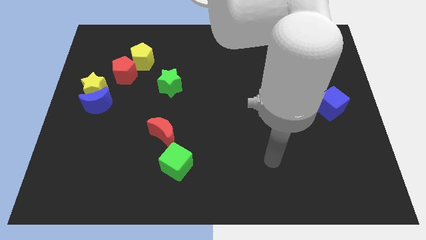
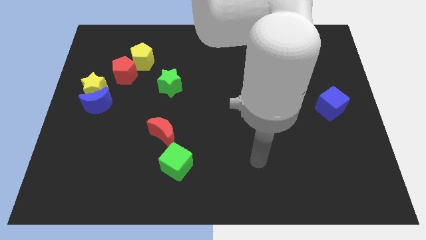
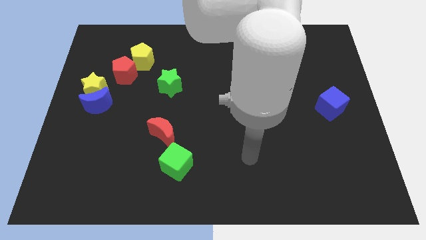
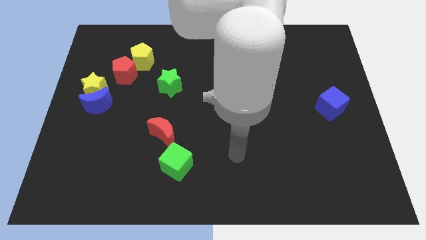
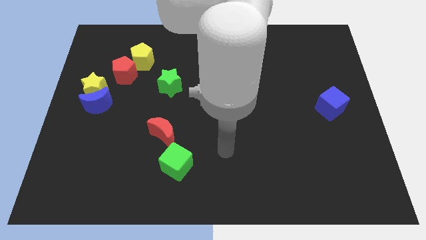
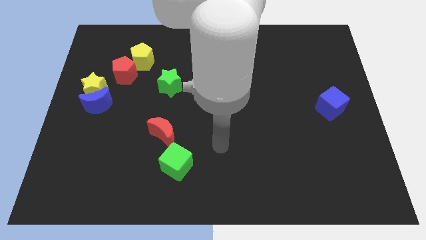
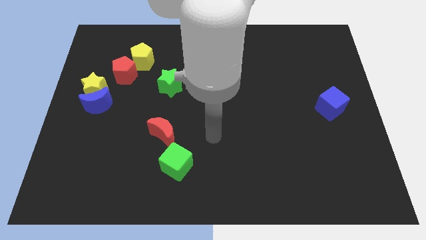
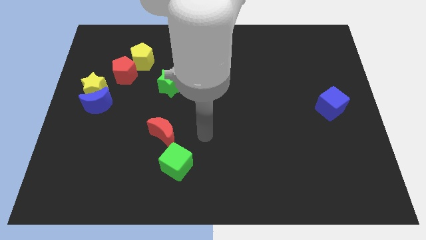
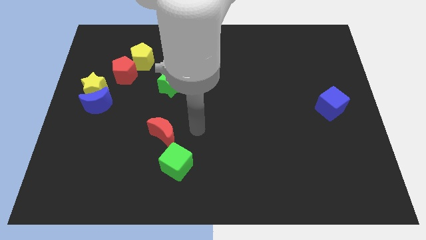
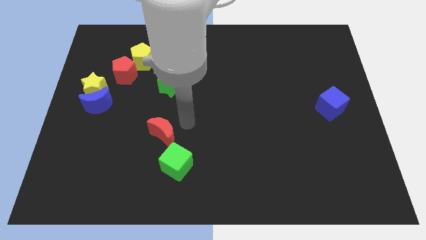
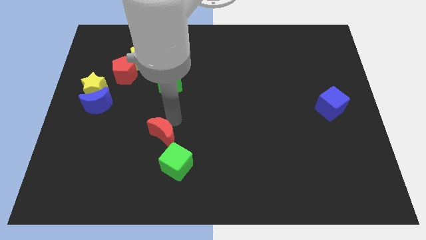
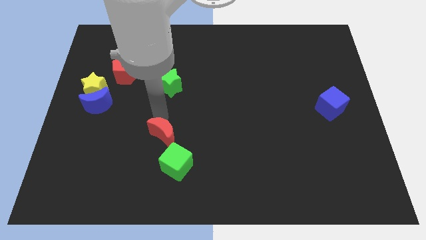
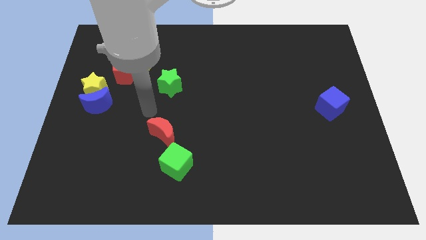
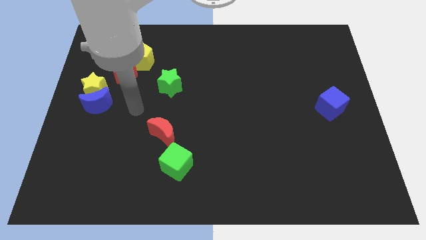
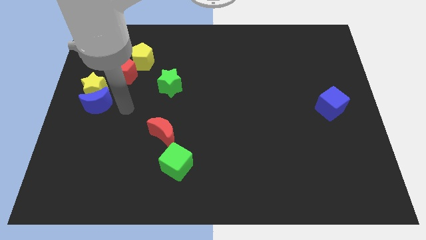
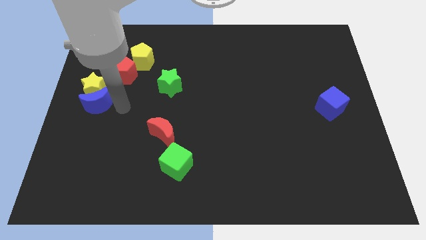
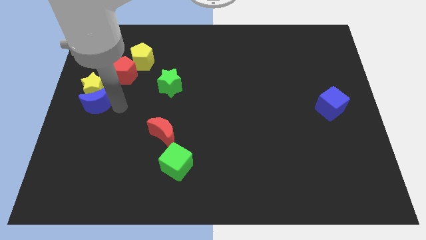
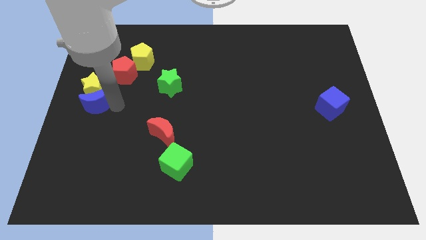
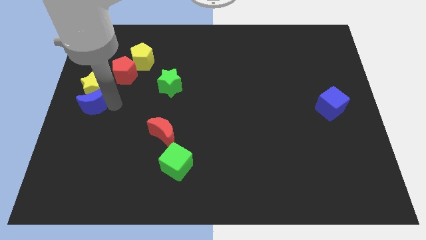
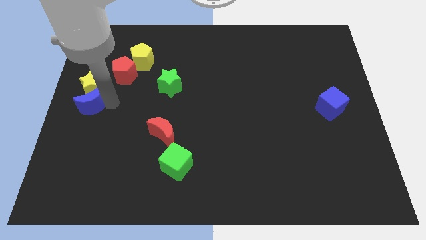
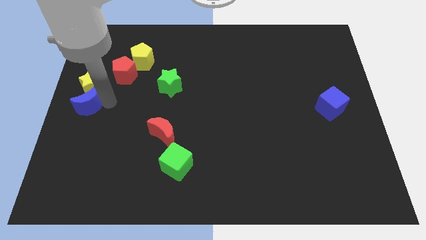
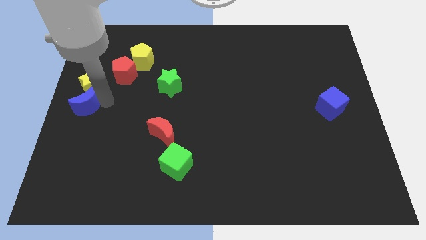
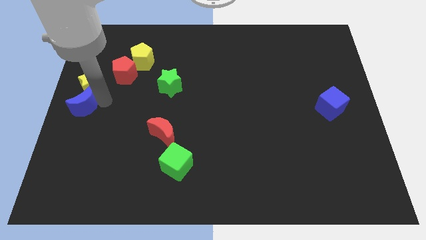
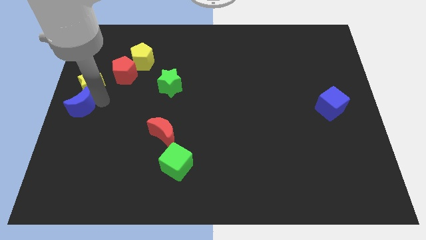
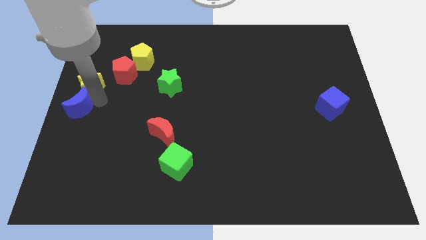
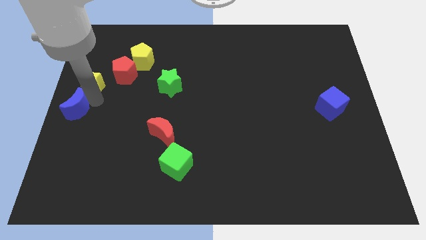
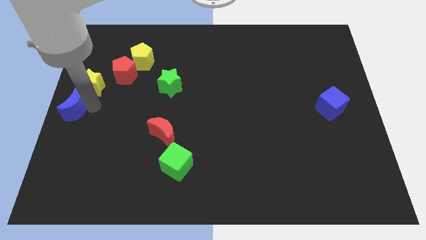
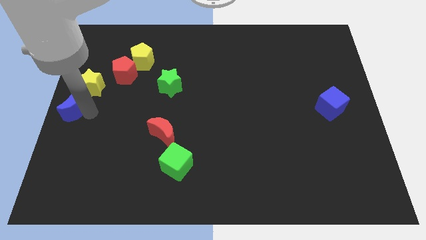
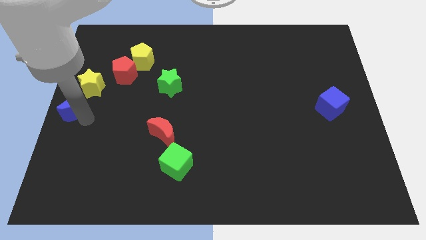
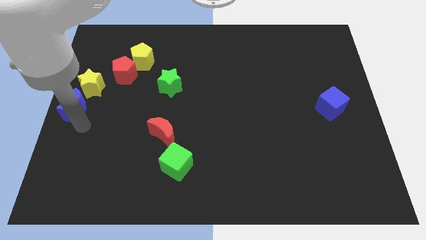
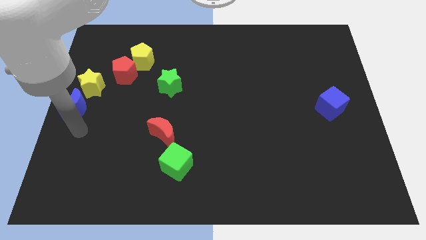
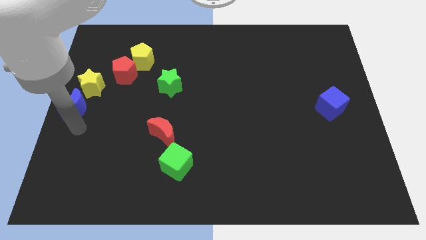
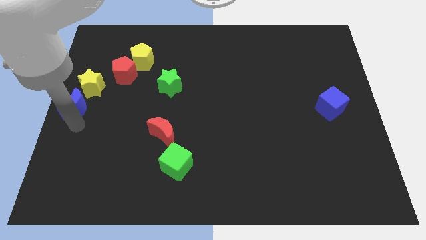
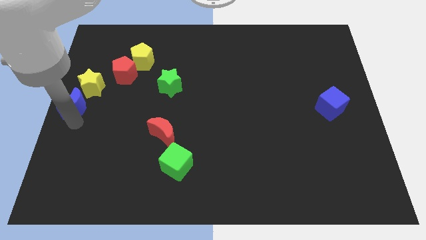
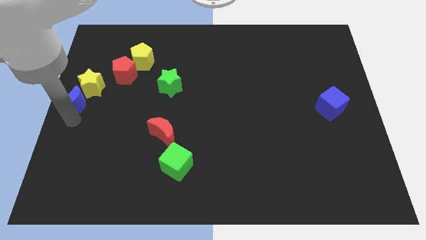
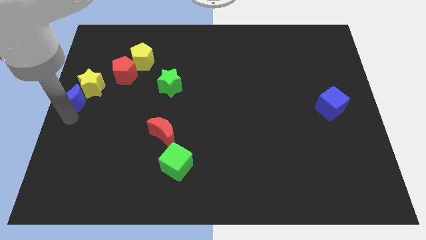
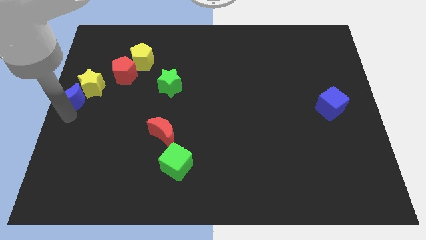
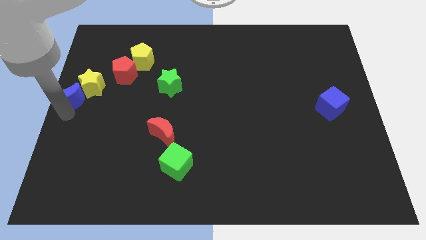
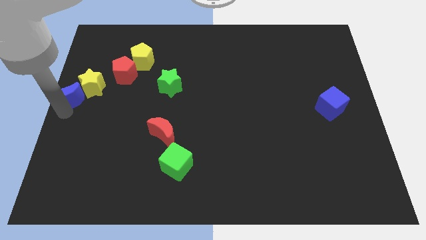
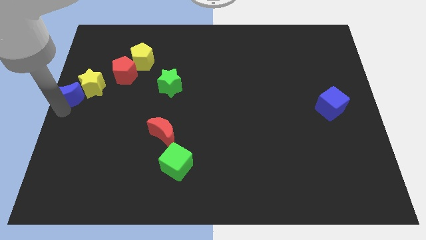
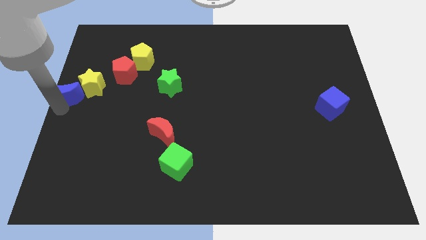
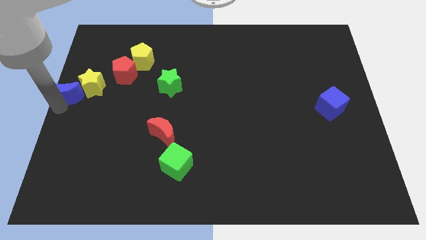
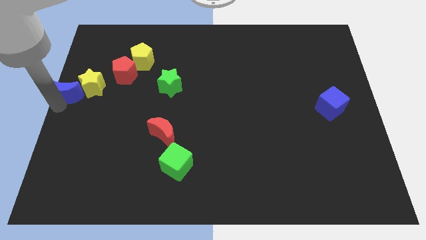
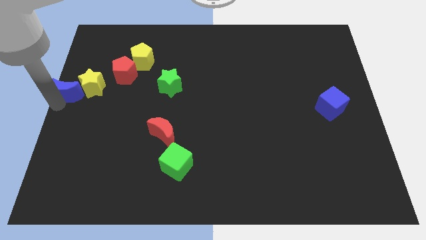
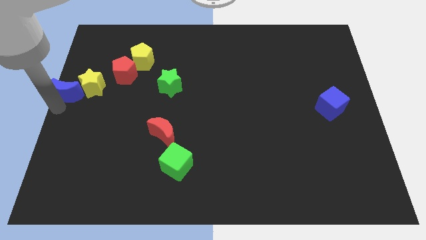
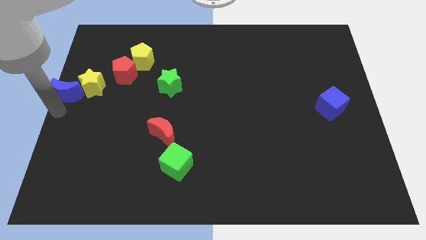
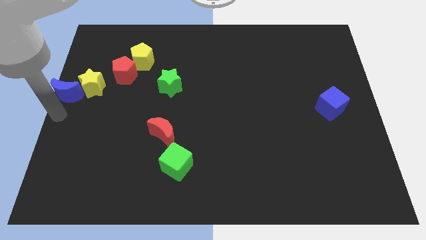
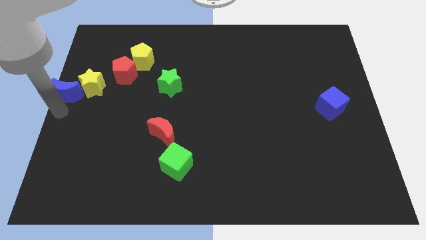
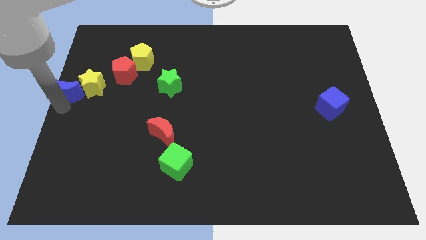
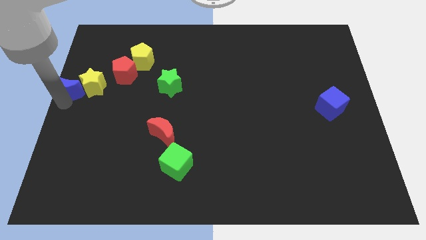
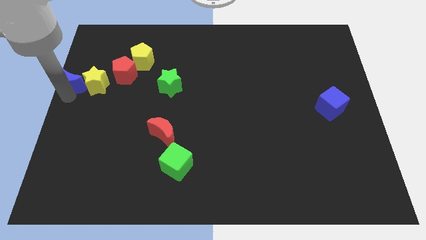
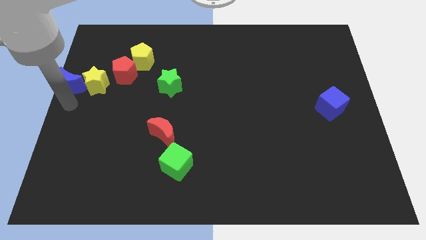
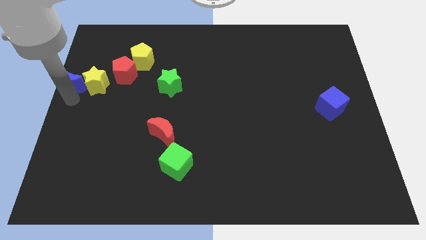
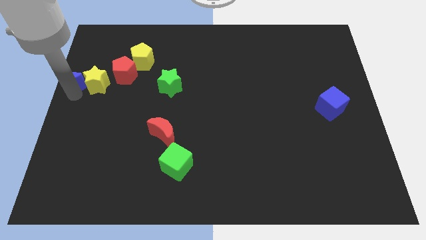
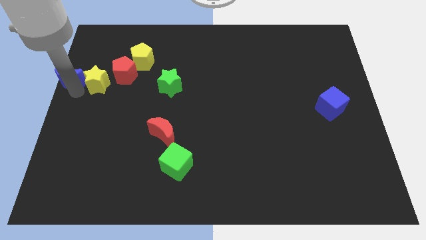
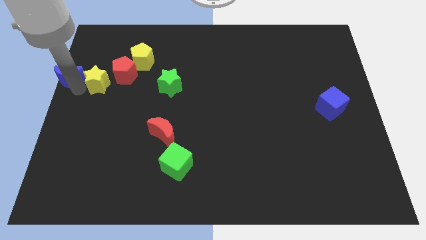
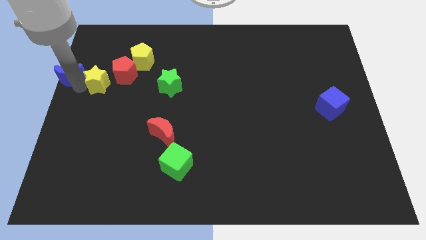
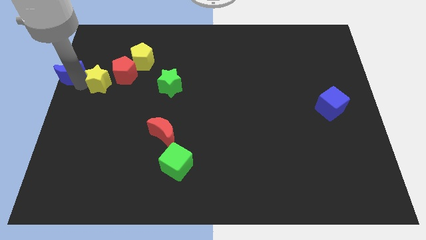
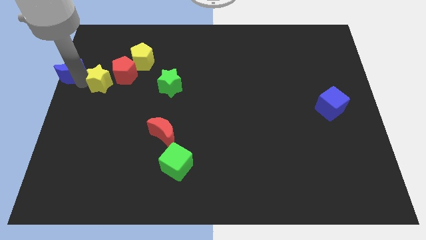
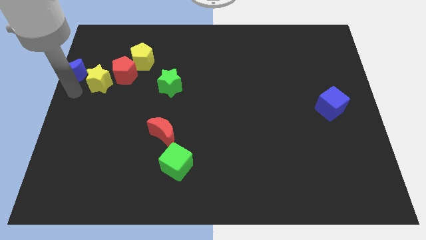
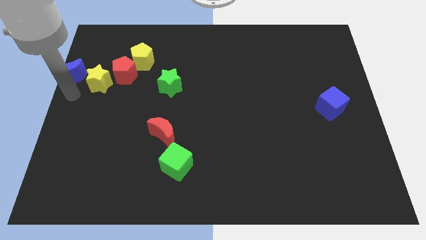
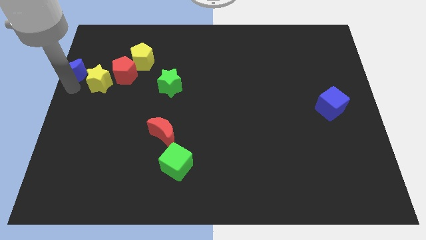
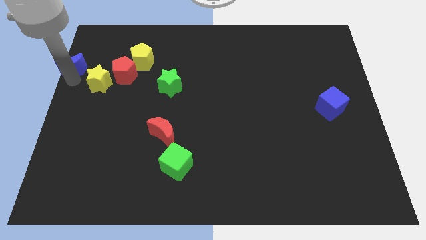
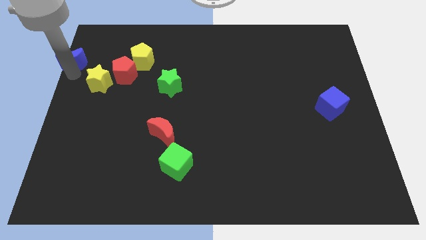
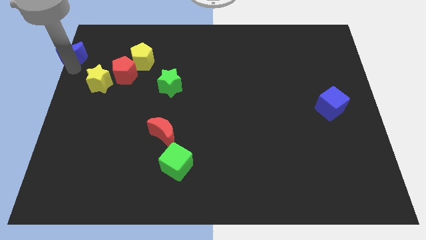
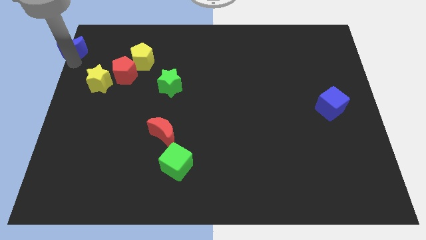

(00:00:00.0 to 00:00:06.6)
put the blue moon to the upper left corner
